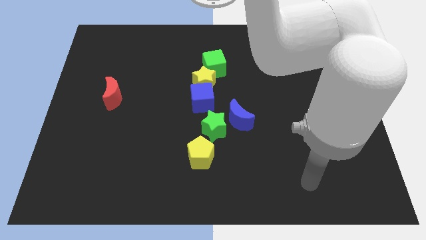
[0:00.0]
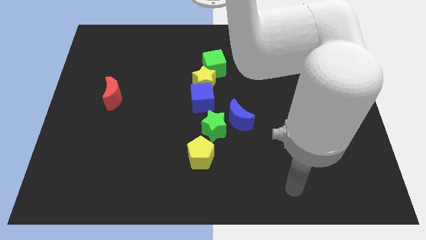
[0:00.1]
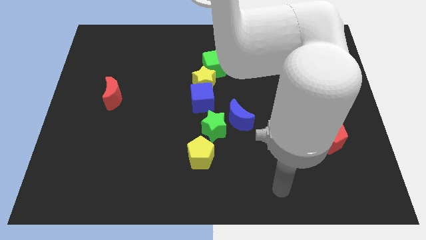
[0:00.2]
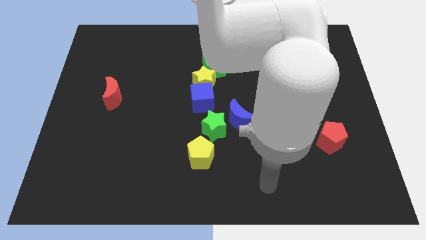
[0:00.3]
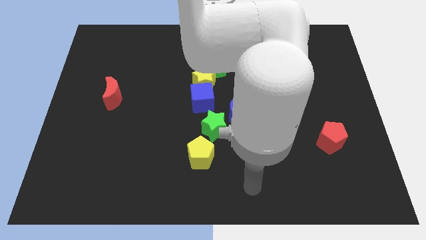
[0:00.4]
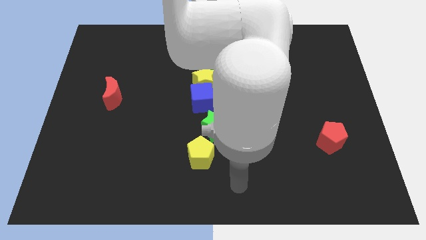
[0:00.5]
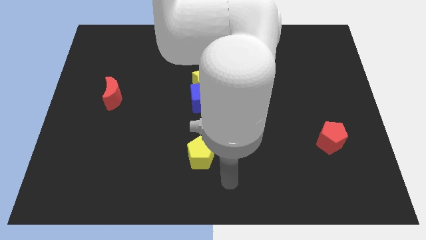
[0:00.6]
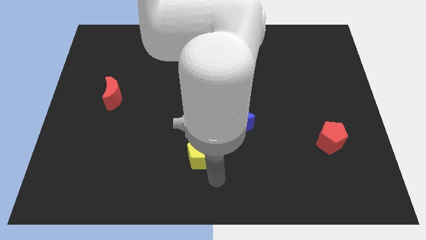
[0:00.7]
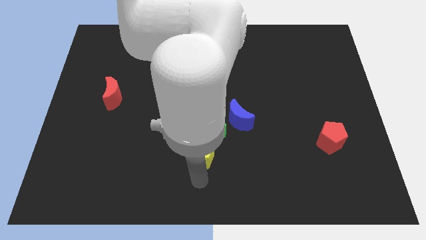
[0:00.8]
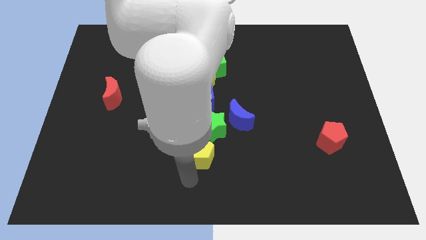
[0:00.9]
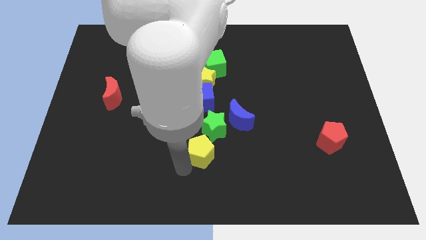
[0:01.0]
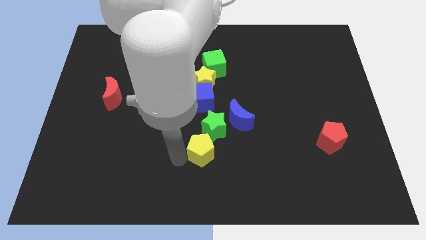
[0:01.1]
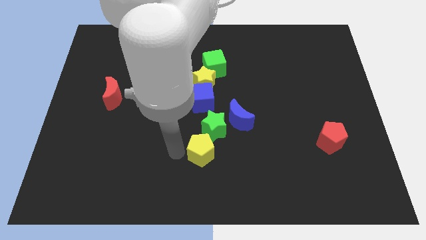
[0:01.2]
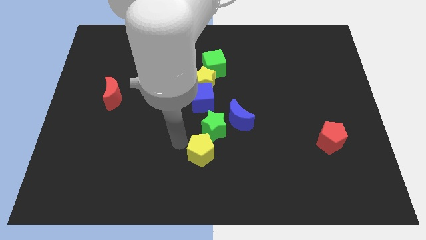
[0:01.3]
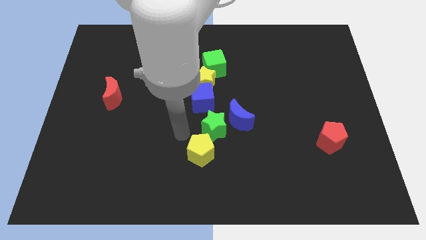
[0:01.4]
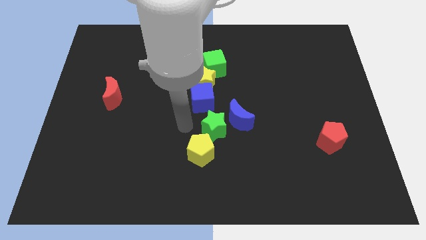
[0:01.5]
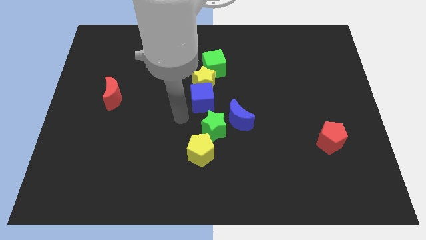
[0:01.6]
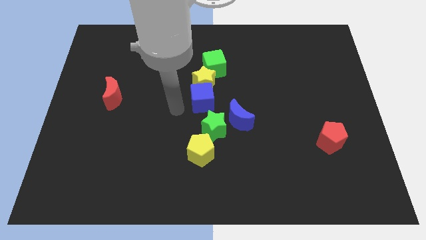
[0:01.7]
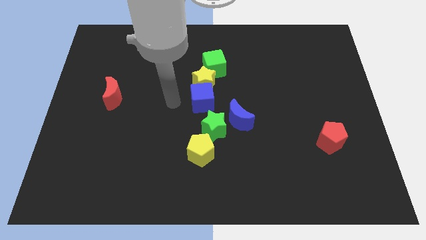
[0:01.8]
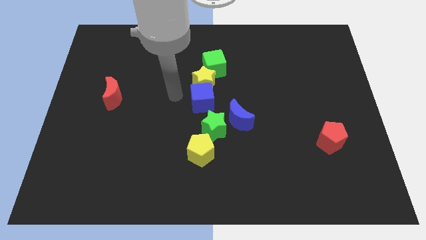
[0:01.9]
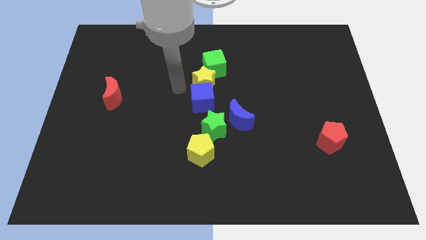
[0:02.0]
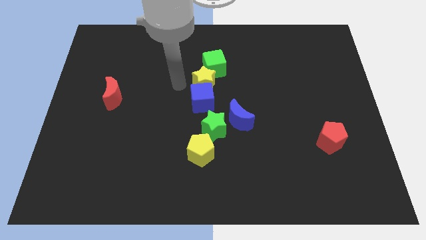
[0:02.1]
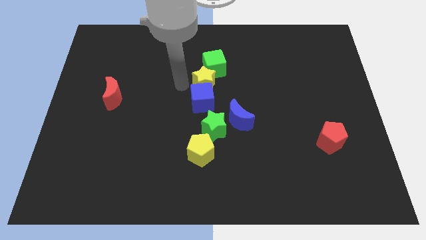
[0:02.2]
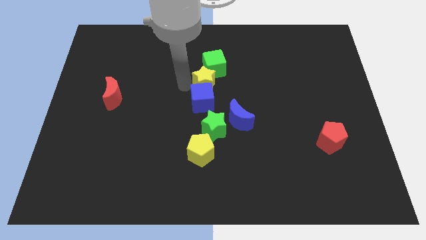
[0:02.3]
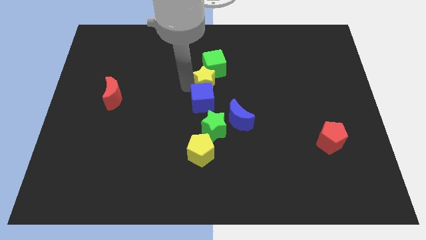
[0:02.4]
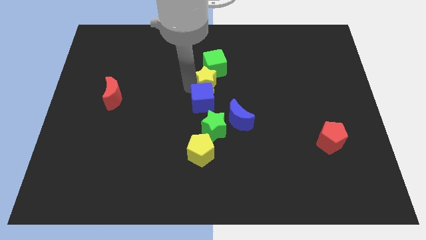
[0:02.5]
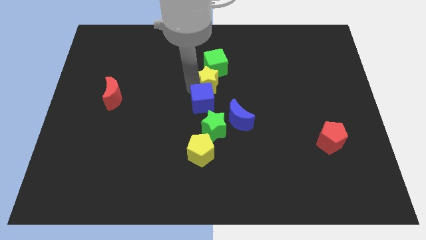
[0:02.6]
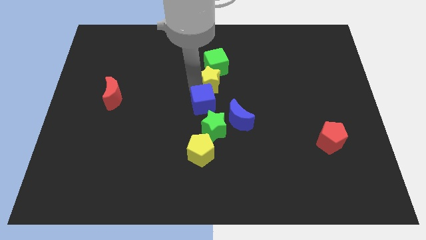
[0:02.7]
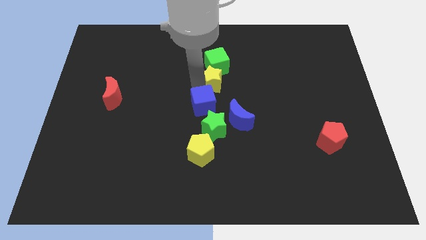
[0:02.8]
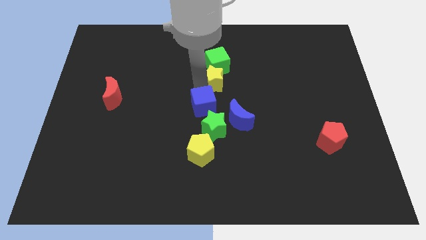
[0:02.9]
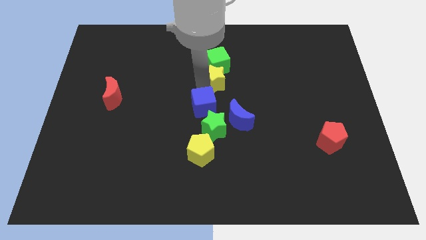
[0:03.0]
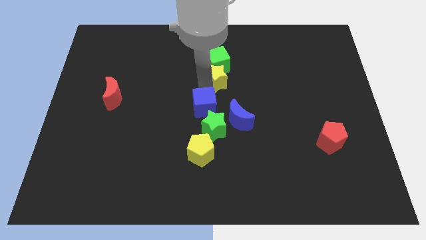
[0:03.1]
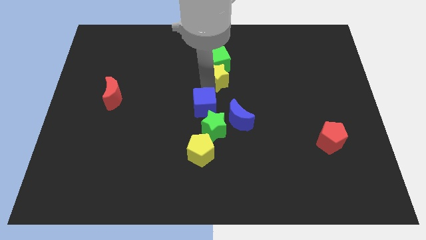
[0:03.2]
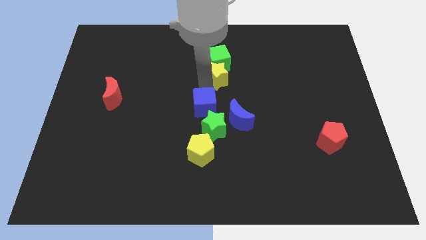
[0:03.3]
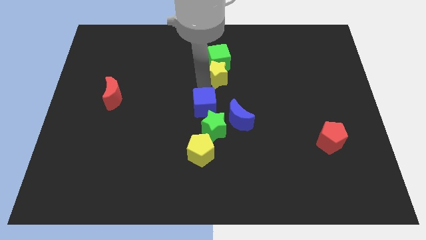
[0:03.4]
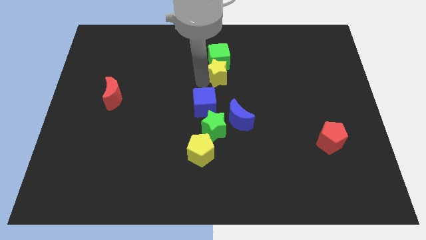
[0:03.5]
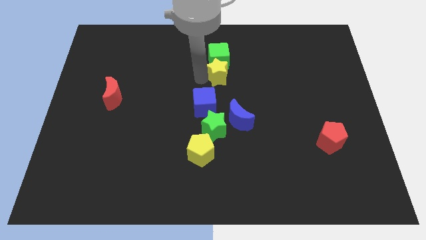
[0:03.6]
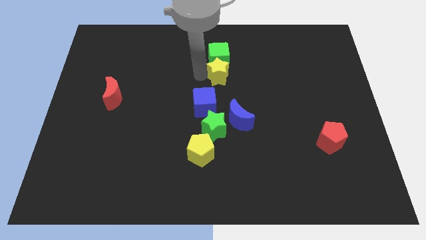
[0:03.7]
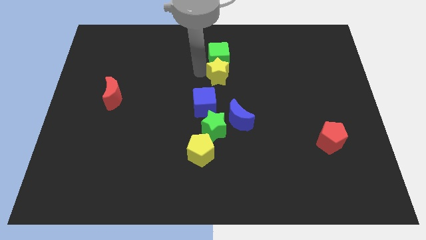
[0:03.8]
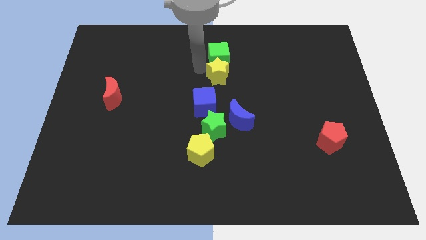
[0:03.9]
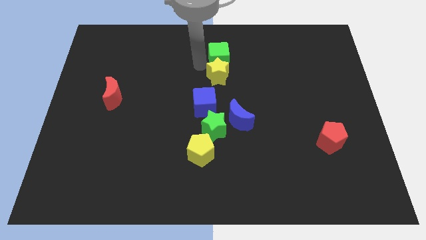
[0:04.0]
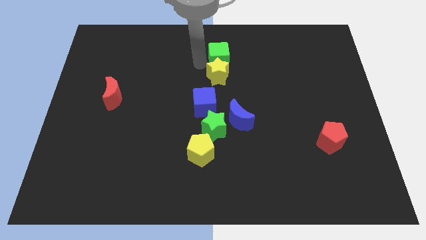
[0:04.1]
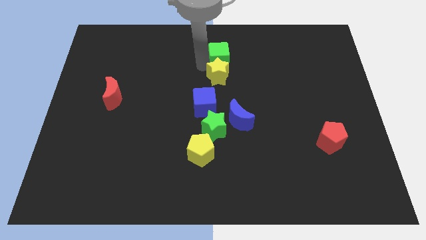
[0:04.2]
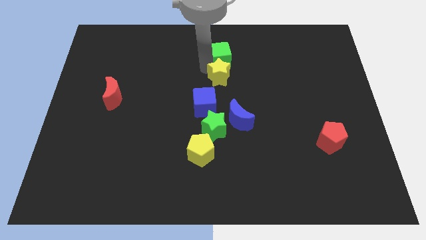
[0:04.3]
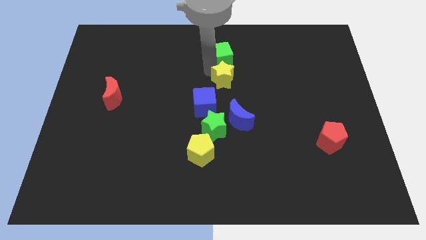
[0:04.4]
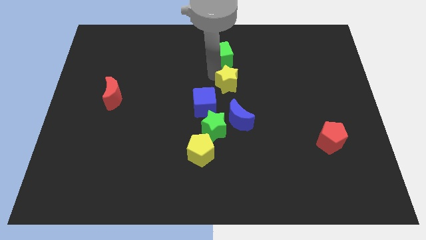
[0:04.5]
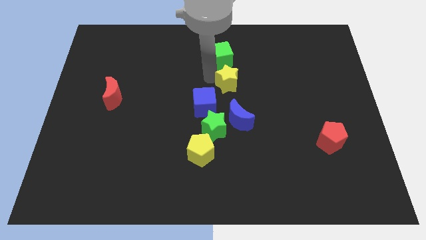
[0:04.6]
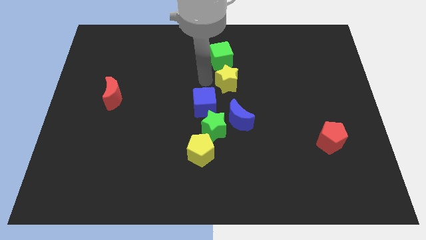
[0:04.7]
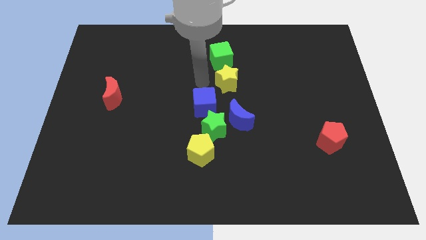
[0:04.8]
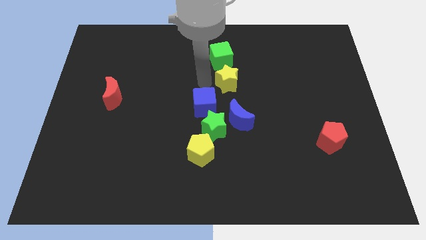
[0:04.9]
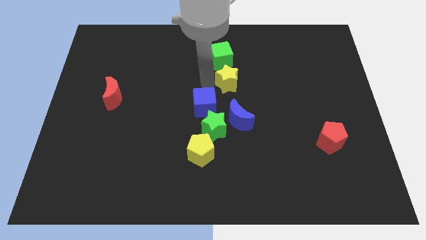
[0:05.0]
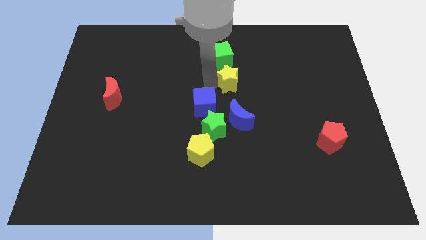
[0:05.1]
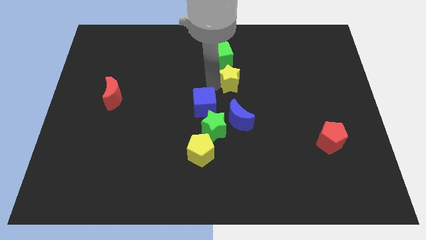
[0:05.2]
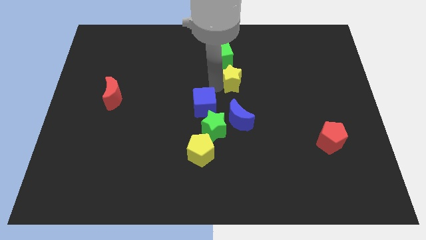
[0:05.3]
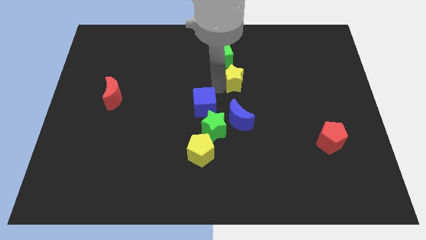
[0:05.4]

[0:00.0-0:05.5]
slightly move the yellow star to the right

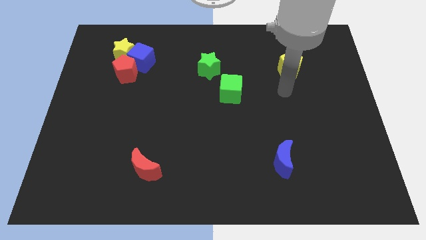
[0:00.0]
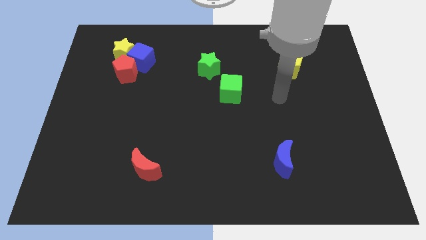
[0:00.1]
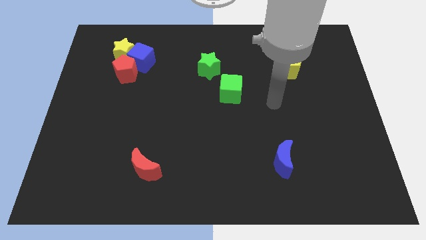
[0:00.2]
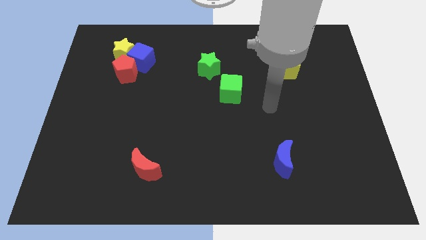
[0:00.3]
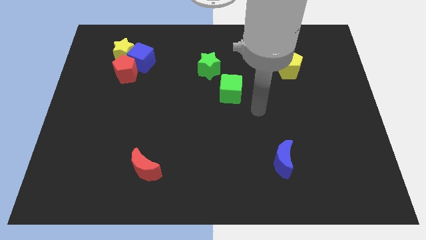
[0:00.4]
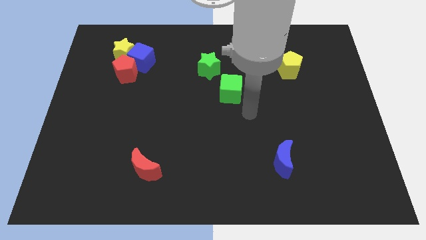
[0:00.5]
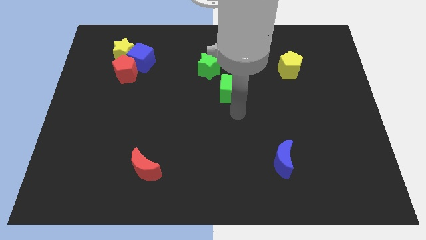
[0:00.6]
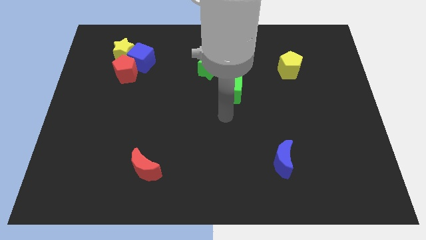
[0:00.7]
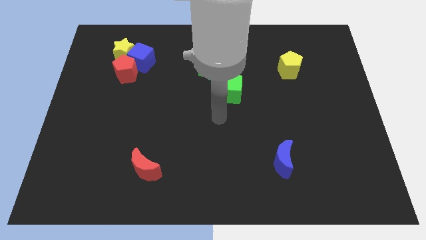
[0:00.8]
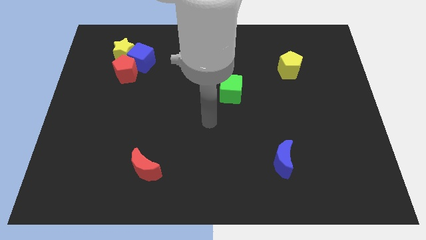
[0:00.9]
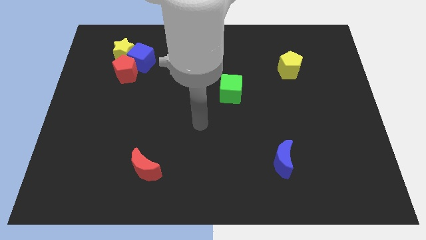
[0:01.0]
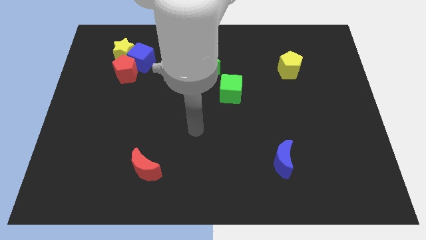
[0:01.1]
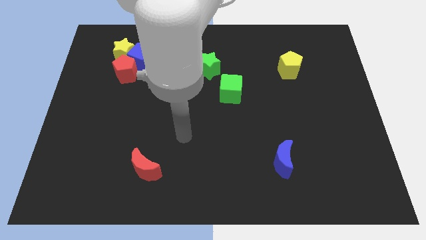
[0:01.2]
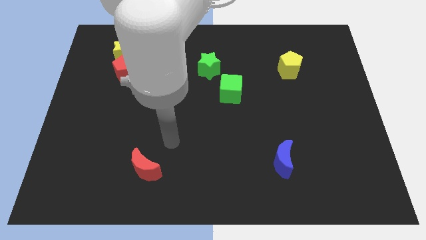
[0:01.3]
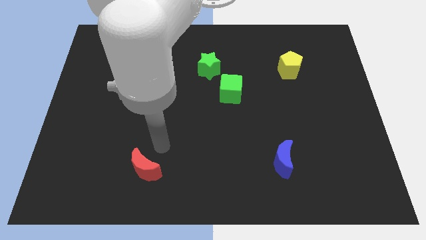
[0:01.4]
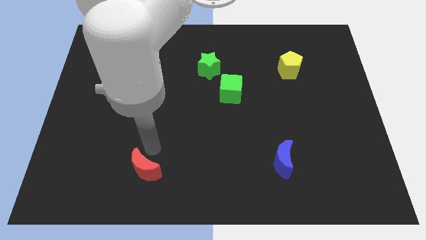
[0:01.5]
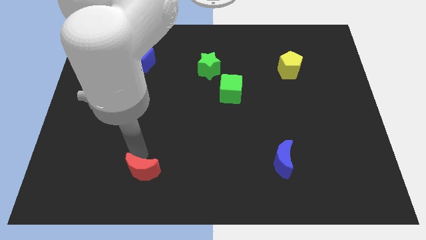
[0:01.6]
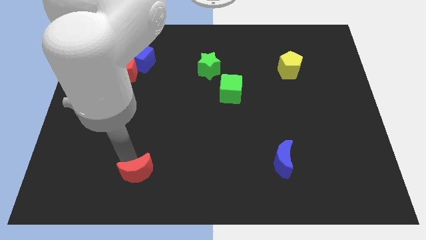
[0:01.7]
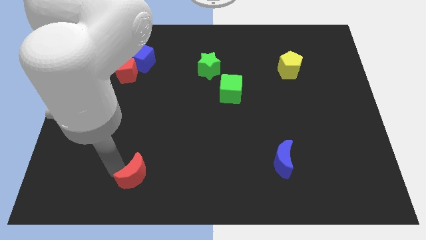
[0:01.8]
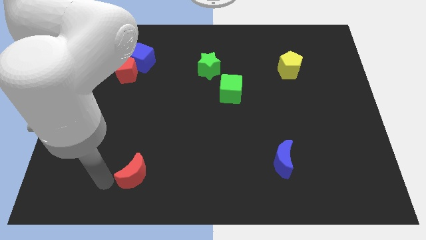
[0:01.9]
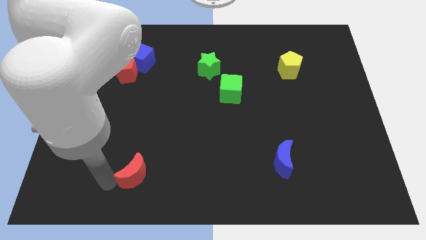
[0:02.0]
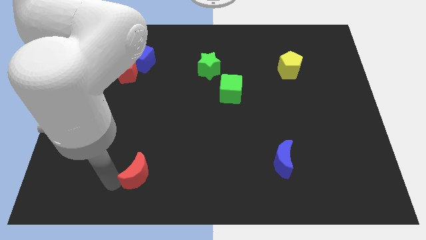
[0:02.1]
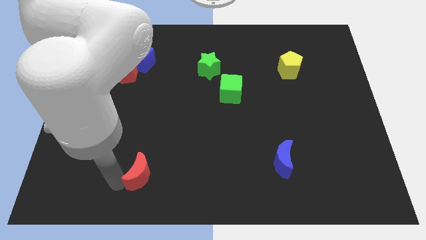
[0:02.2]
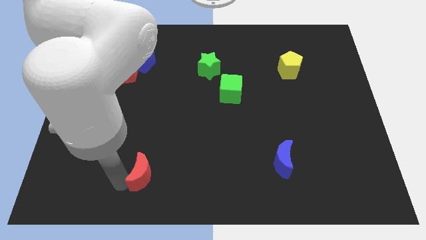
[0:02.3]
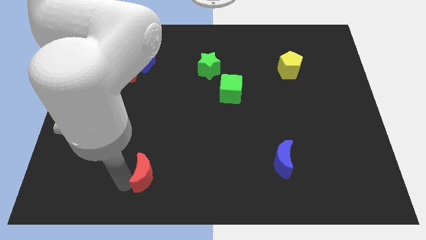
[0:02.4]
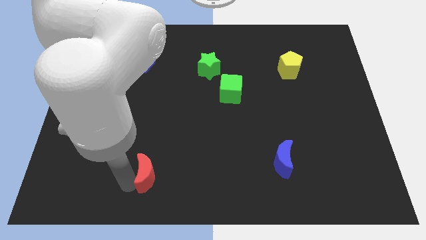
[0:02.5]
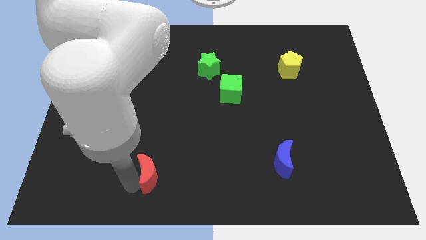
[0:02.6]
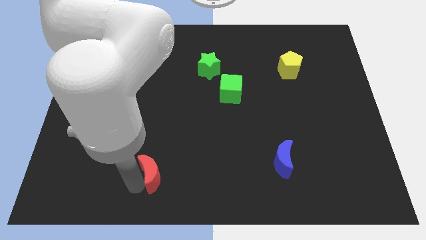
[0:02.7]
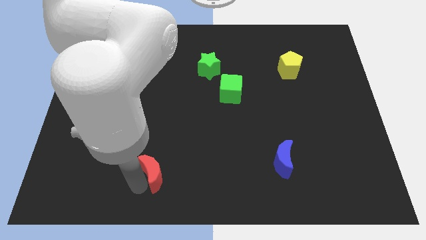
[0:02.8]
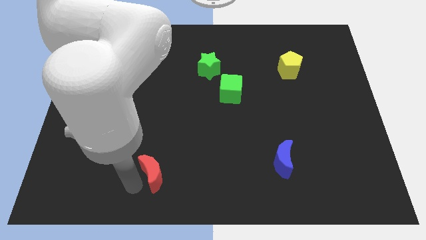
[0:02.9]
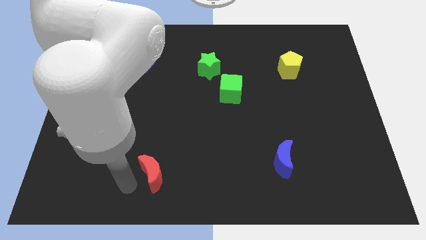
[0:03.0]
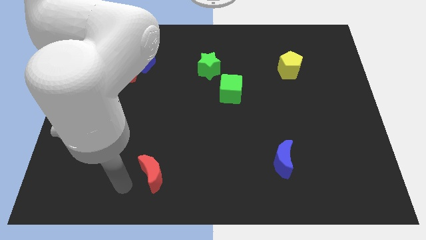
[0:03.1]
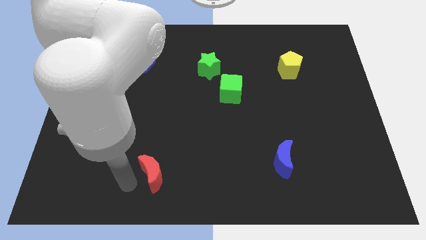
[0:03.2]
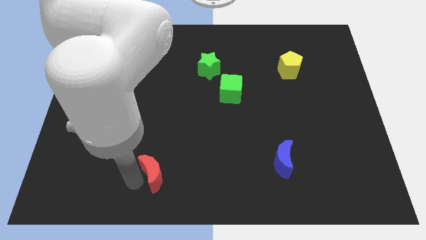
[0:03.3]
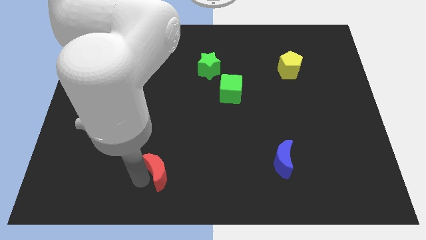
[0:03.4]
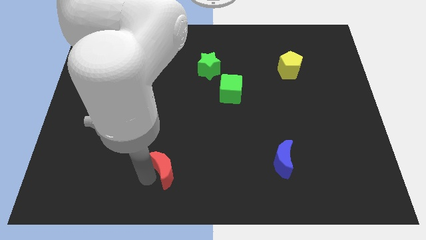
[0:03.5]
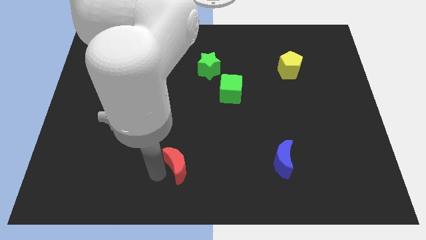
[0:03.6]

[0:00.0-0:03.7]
move the red moon a little bit to the right
